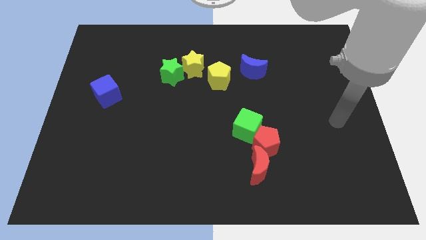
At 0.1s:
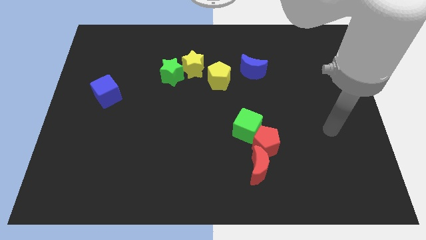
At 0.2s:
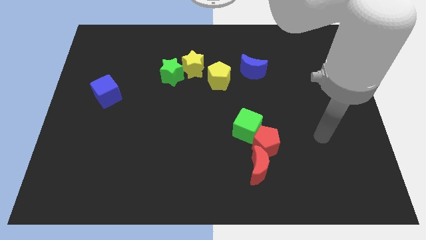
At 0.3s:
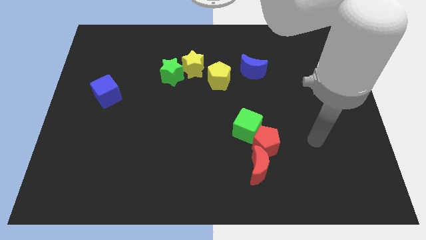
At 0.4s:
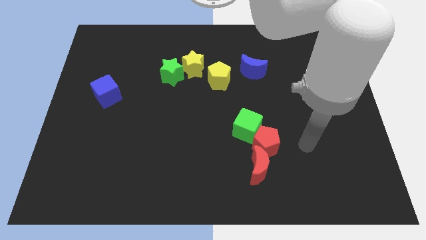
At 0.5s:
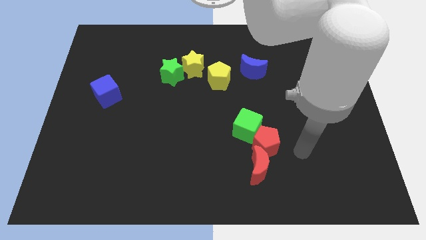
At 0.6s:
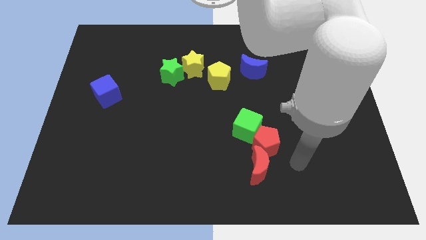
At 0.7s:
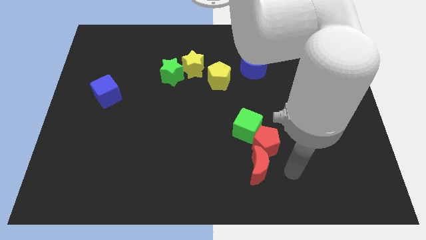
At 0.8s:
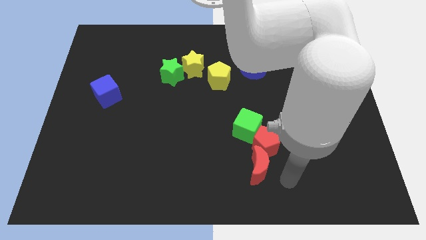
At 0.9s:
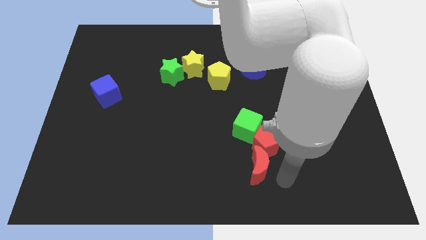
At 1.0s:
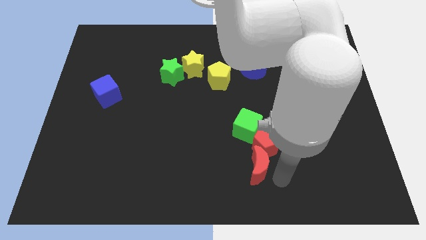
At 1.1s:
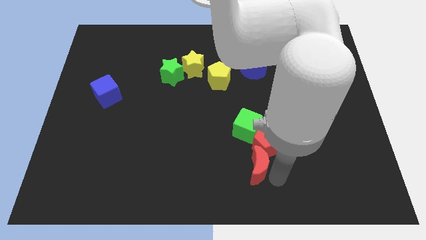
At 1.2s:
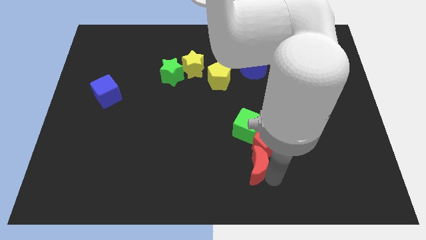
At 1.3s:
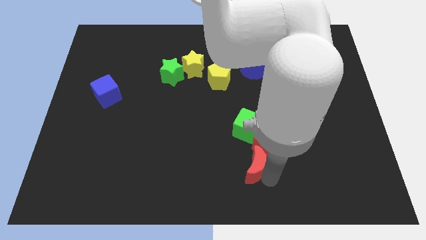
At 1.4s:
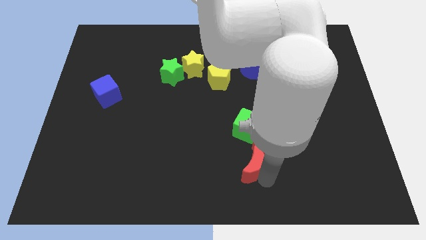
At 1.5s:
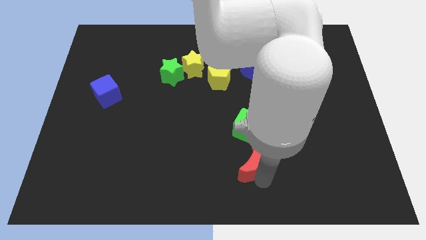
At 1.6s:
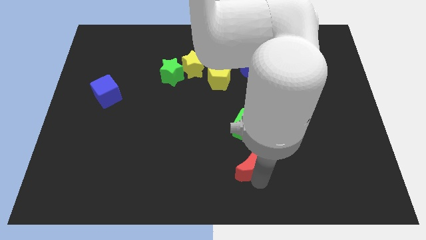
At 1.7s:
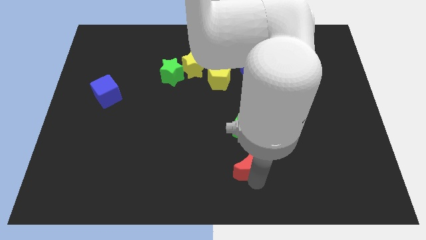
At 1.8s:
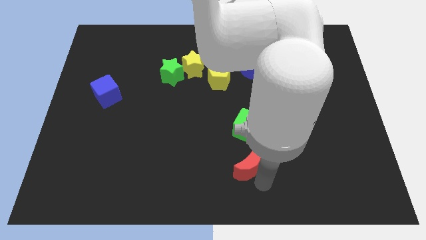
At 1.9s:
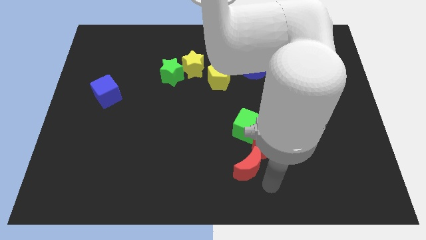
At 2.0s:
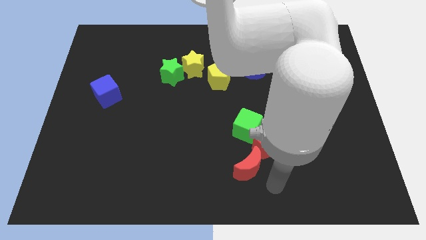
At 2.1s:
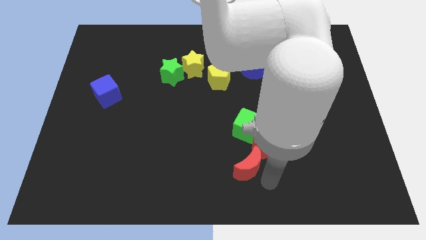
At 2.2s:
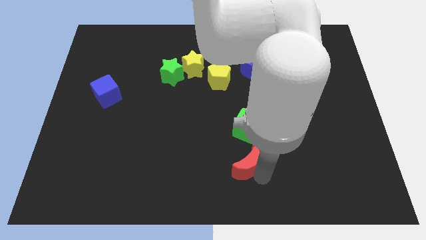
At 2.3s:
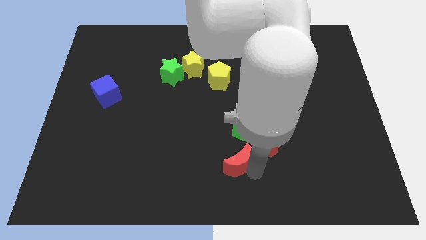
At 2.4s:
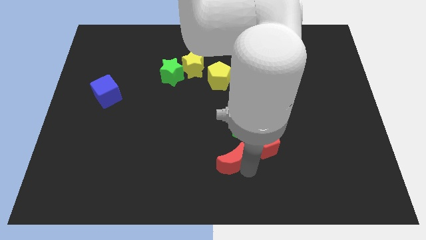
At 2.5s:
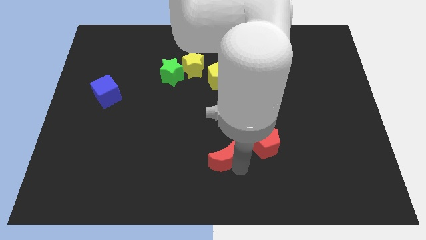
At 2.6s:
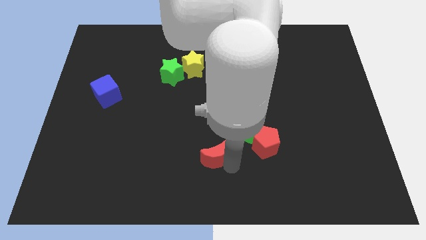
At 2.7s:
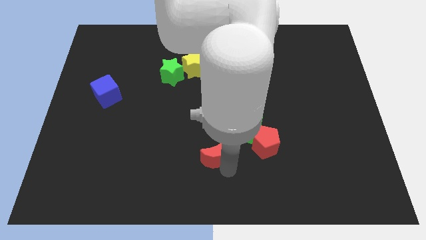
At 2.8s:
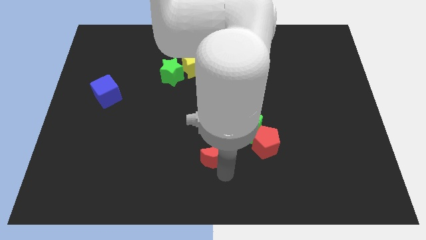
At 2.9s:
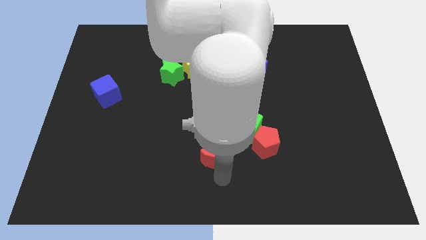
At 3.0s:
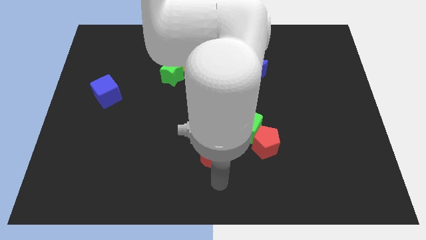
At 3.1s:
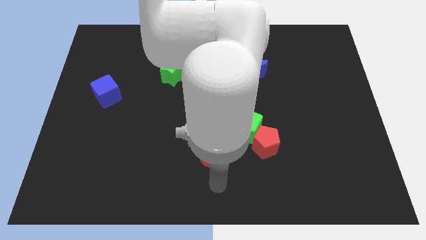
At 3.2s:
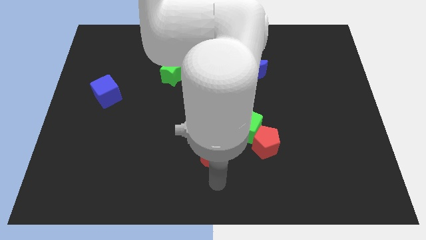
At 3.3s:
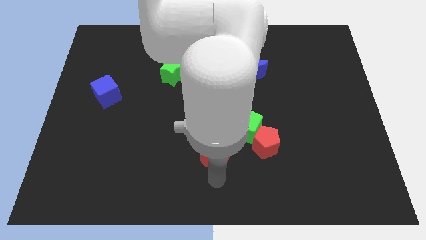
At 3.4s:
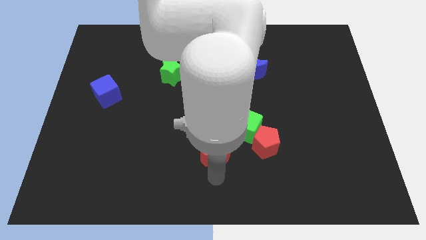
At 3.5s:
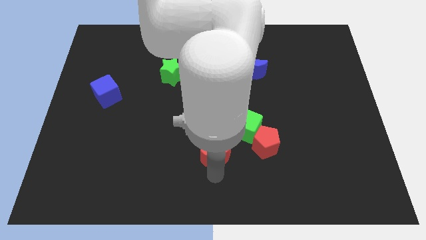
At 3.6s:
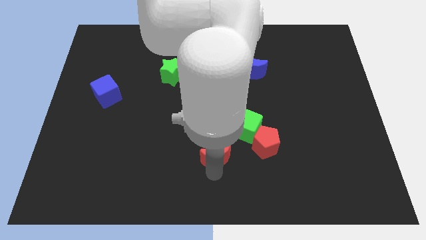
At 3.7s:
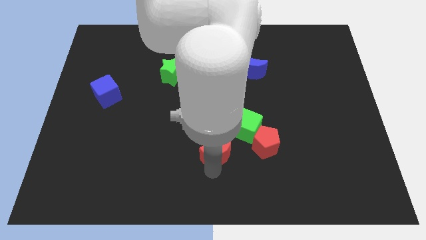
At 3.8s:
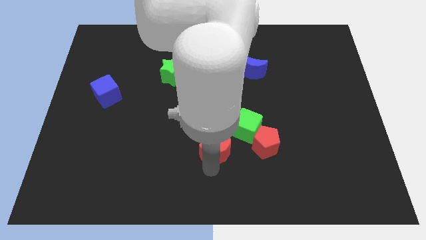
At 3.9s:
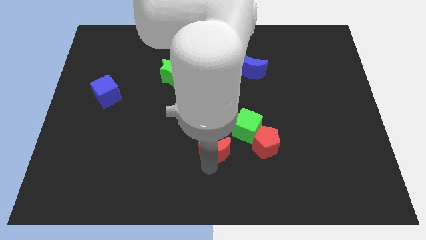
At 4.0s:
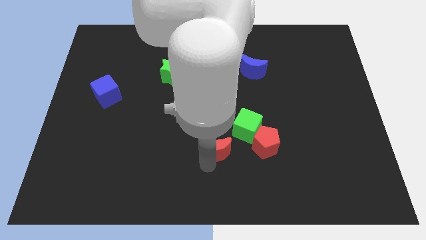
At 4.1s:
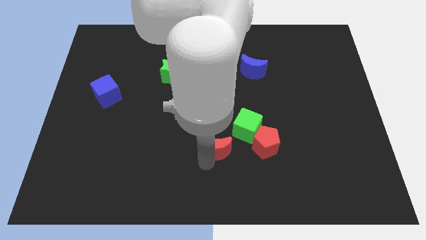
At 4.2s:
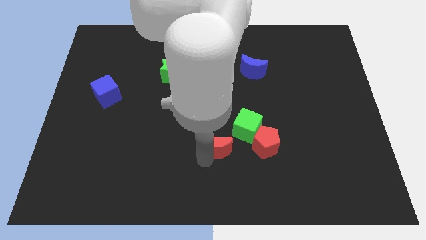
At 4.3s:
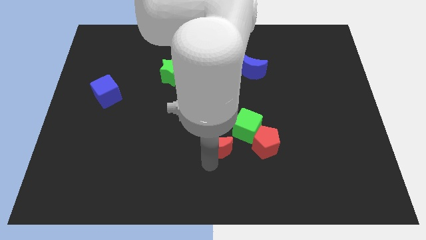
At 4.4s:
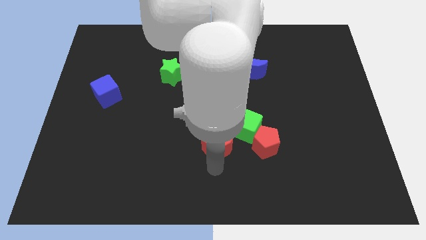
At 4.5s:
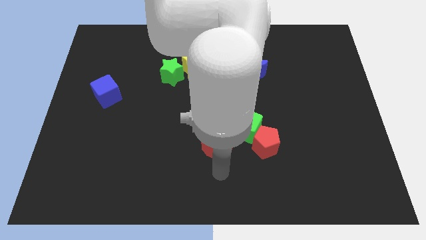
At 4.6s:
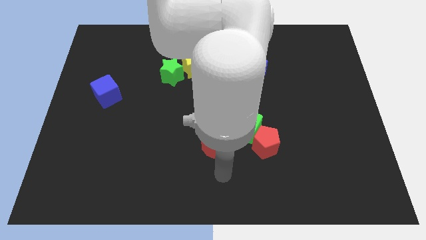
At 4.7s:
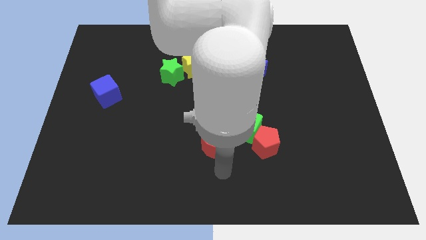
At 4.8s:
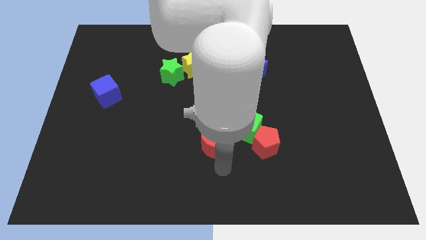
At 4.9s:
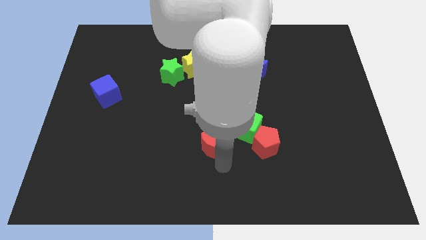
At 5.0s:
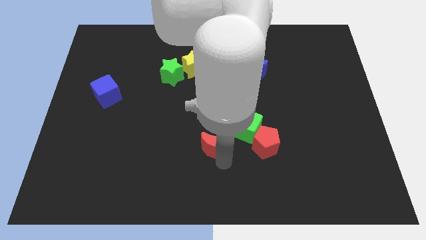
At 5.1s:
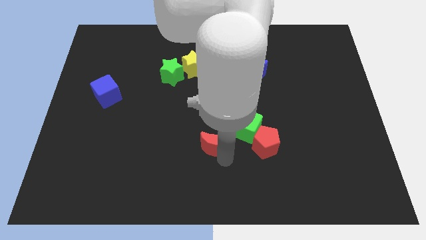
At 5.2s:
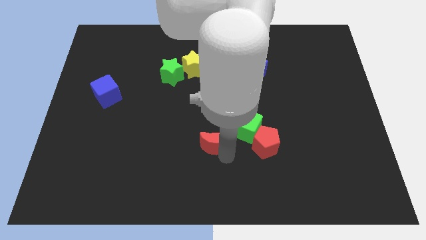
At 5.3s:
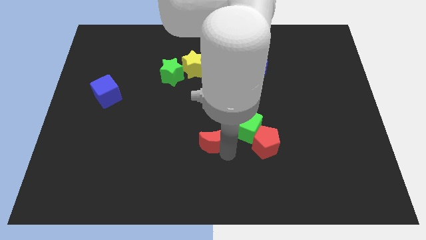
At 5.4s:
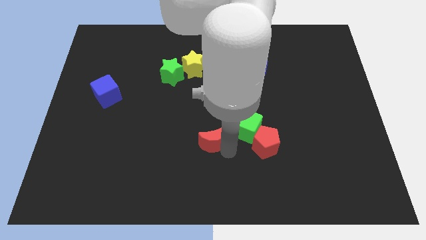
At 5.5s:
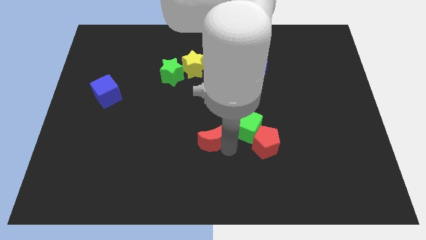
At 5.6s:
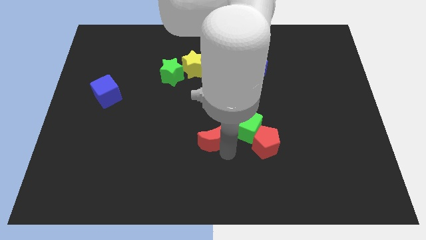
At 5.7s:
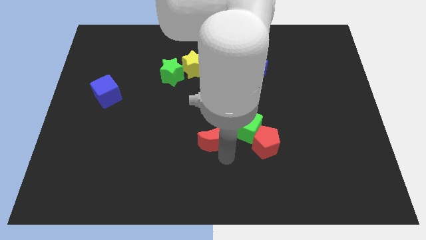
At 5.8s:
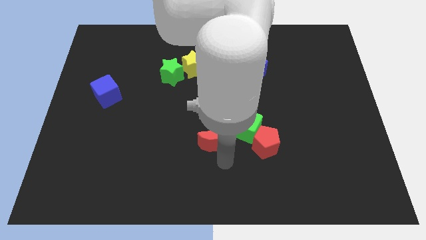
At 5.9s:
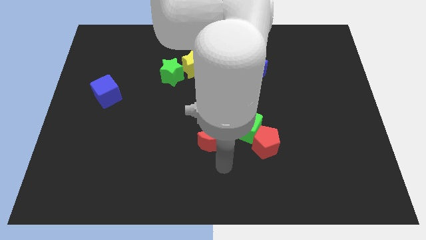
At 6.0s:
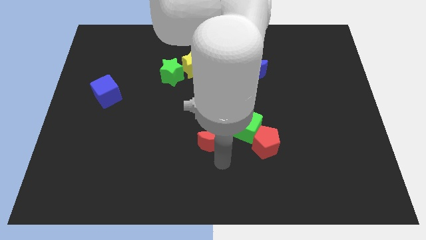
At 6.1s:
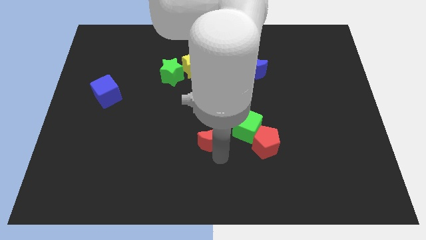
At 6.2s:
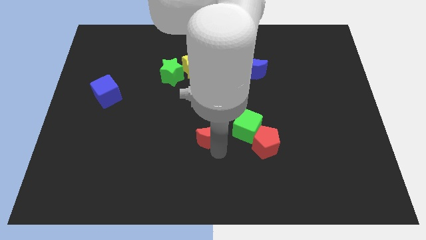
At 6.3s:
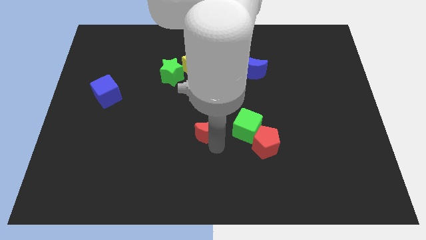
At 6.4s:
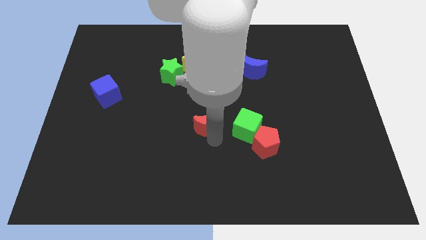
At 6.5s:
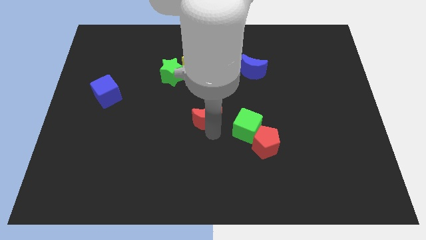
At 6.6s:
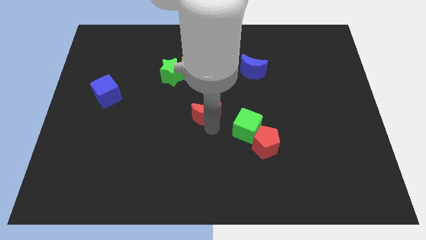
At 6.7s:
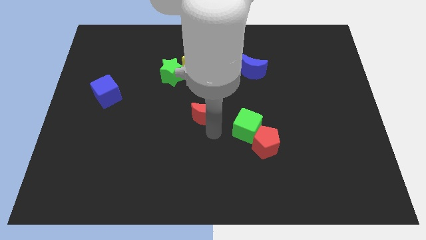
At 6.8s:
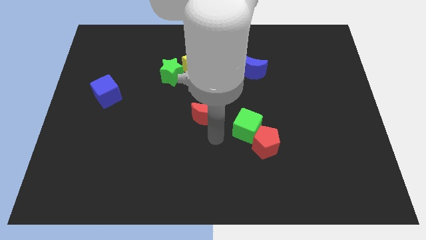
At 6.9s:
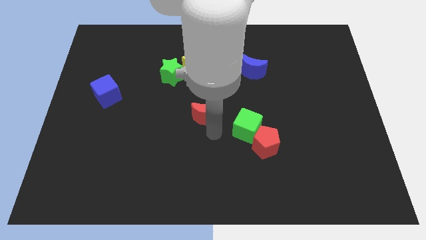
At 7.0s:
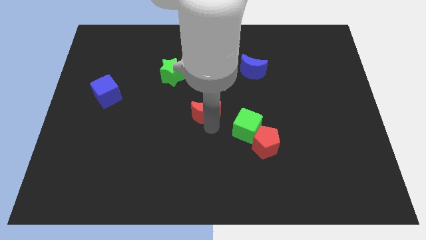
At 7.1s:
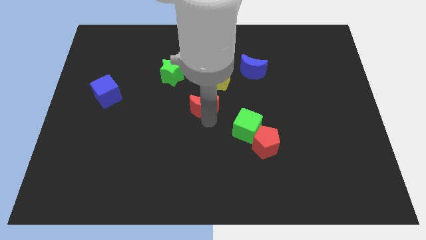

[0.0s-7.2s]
push the red moon to the bottom left of the yellow pentagon
